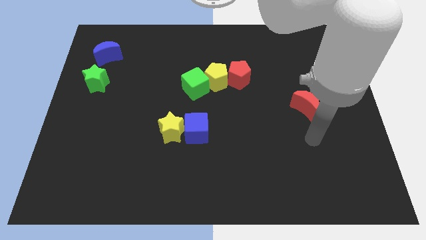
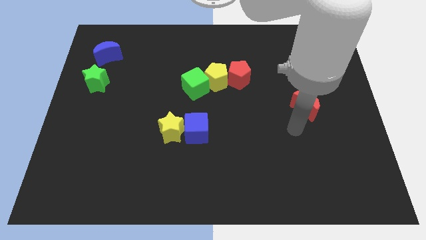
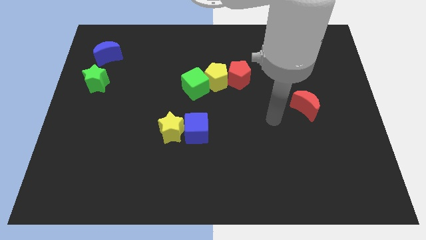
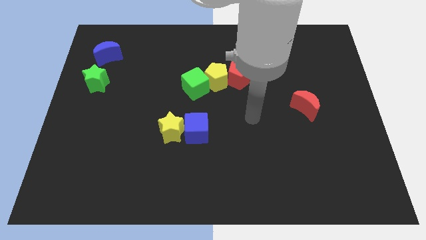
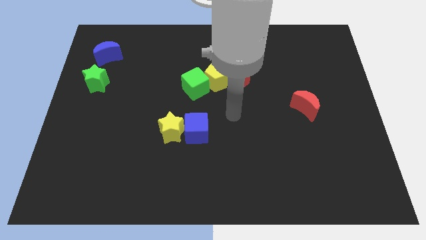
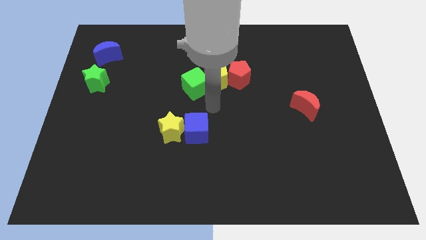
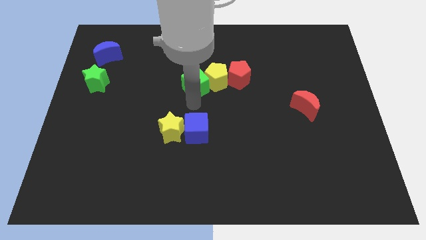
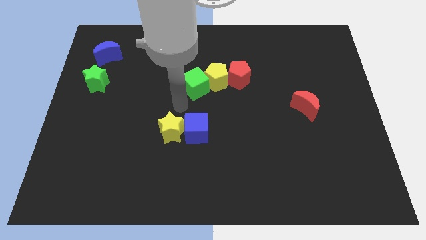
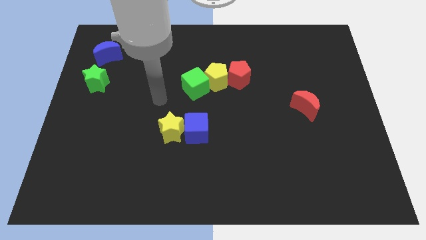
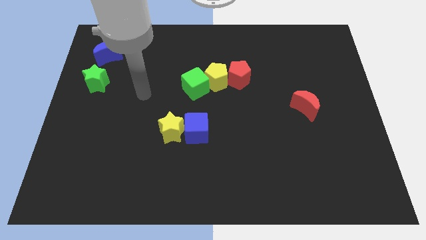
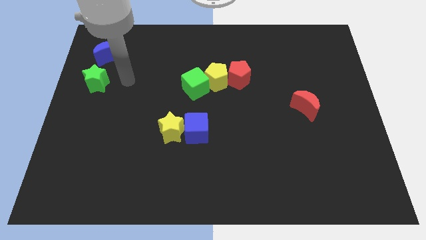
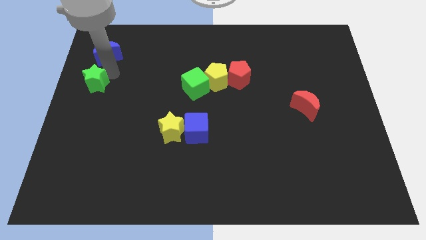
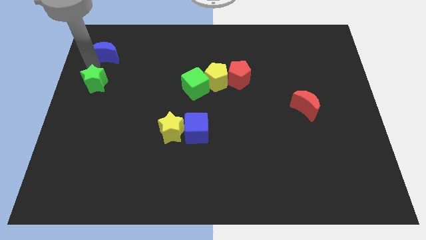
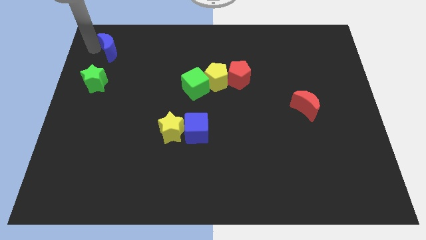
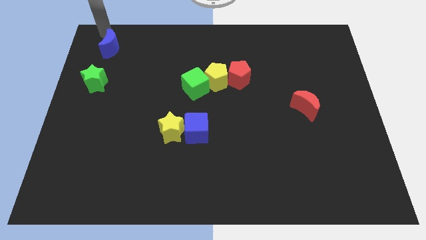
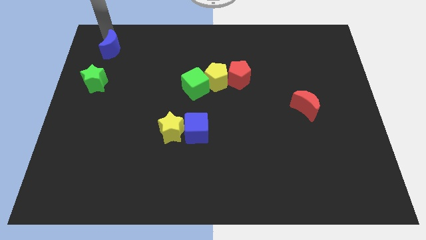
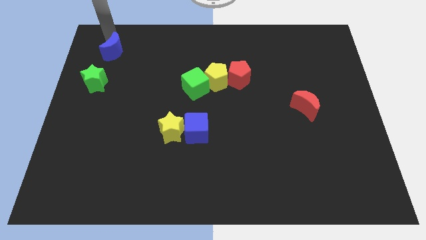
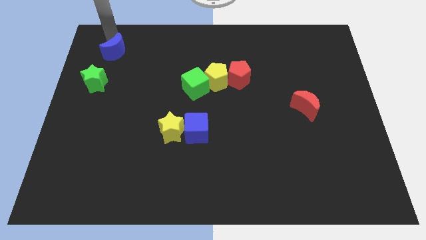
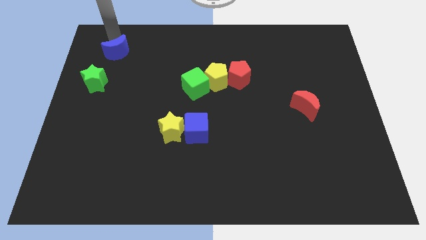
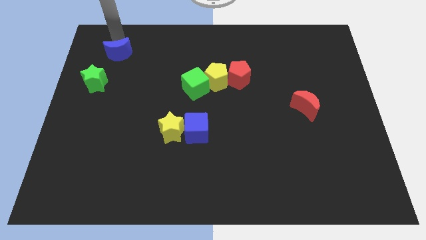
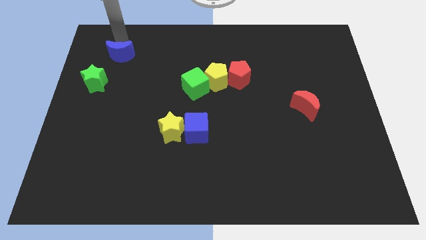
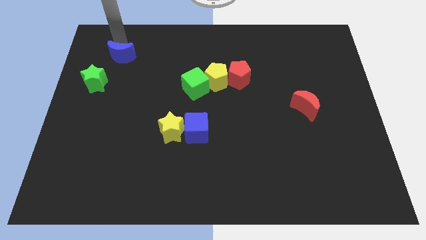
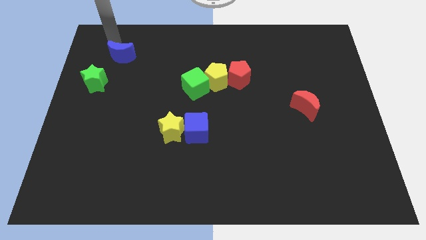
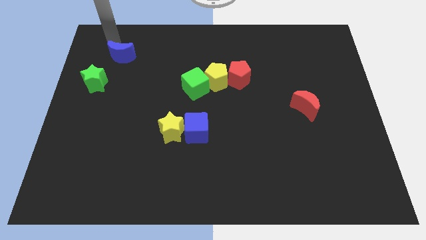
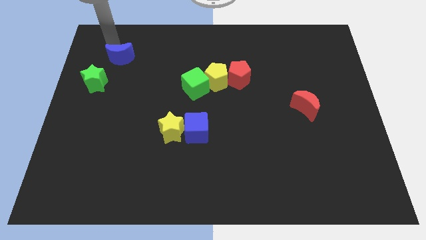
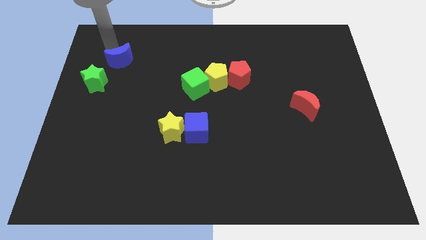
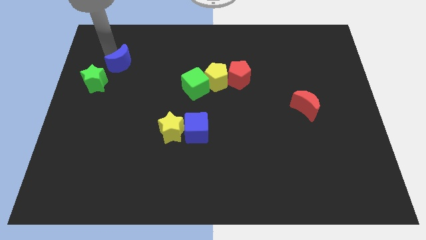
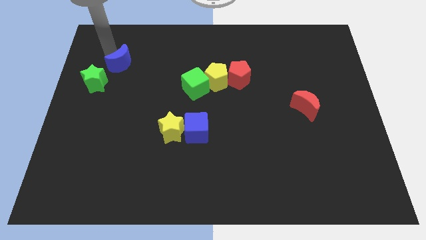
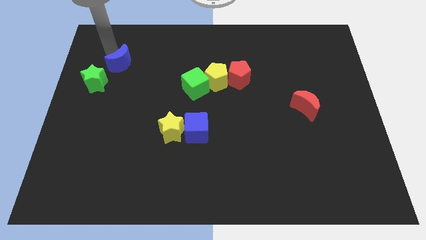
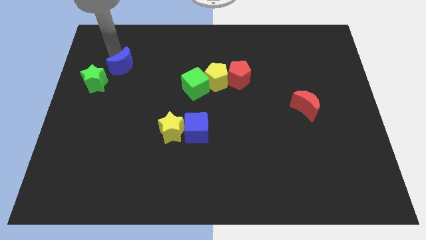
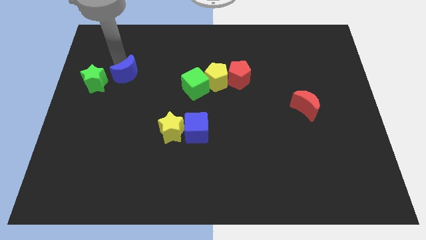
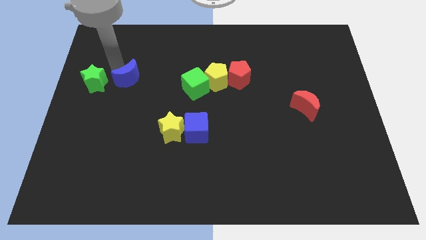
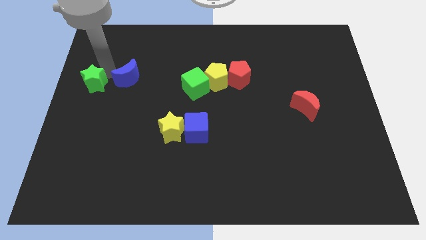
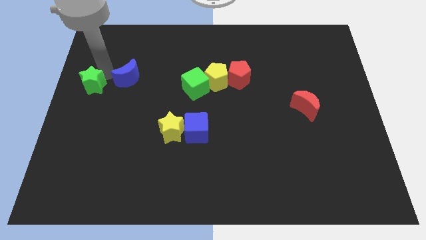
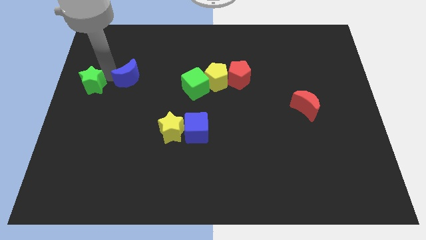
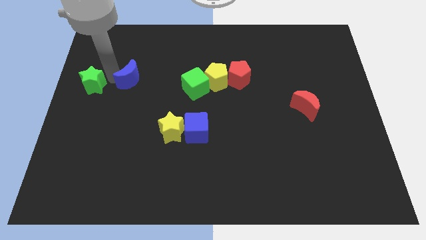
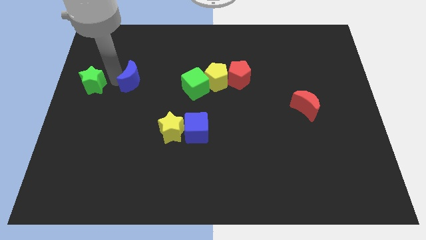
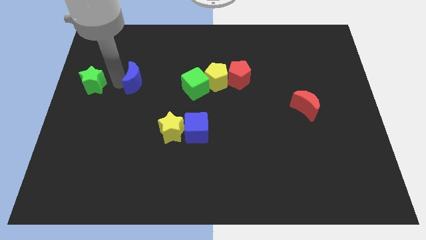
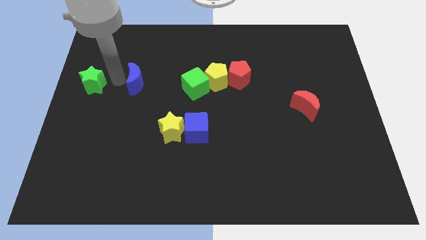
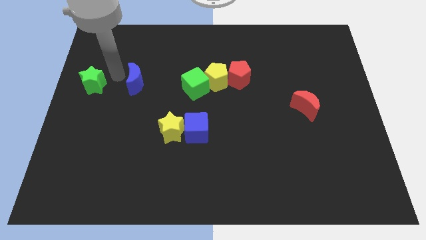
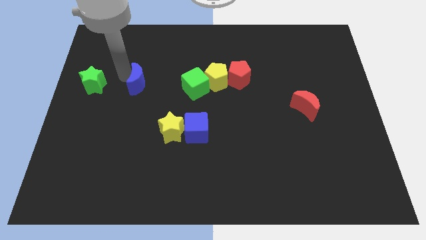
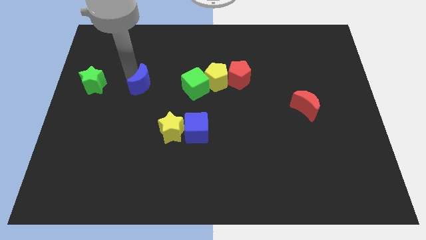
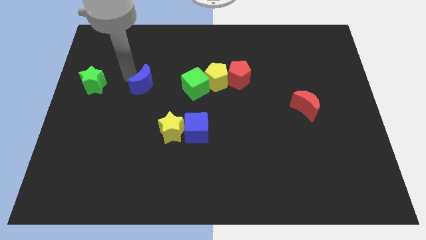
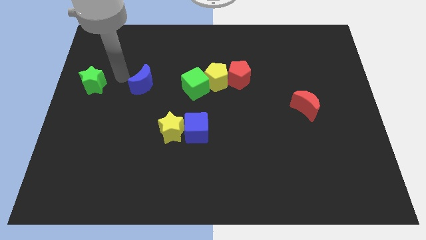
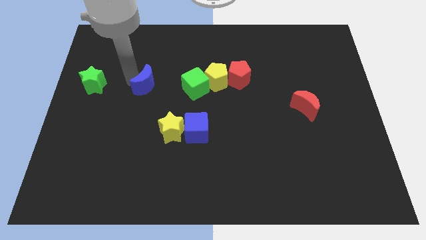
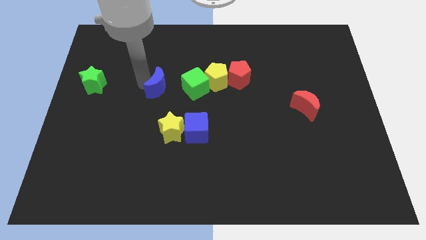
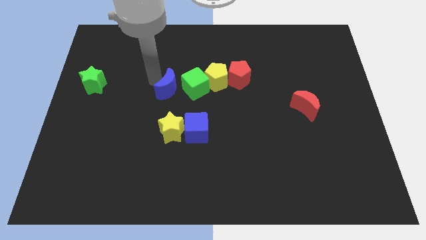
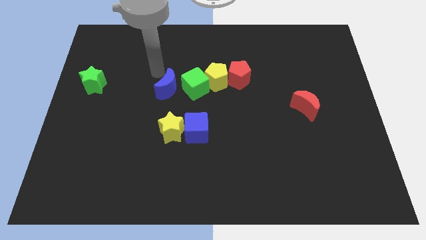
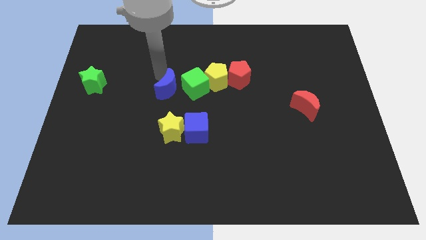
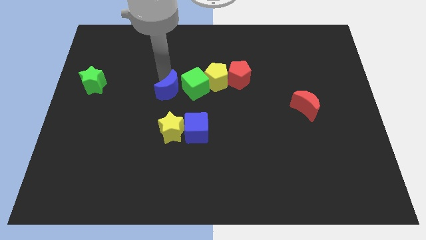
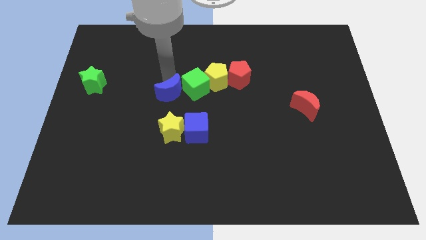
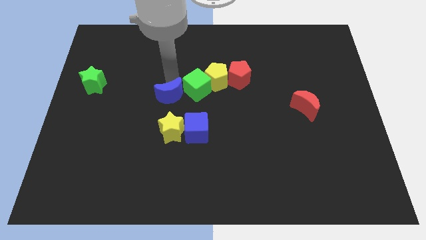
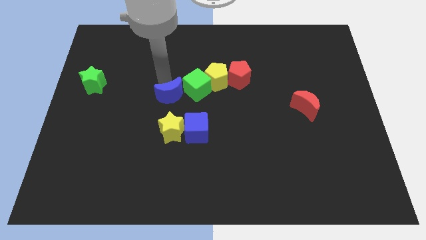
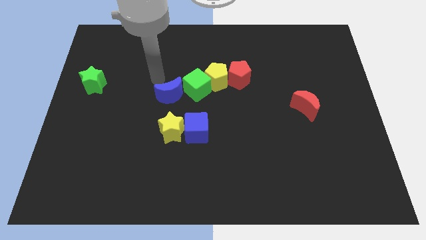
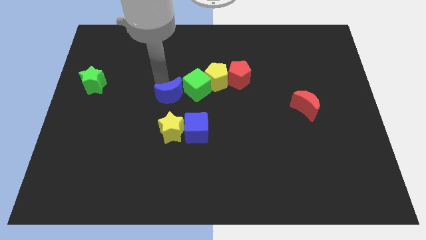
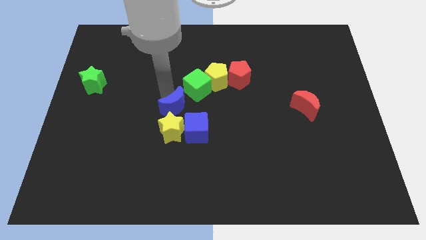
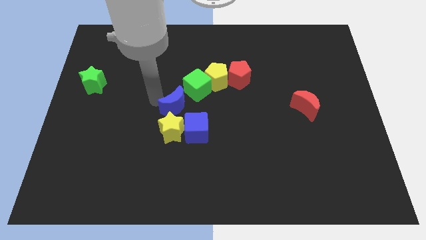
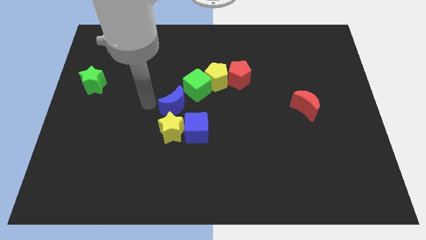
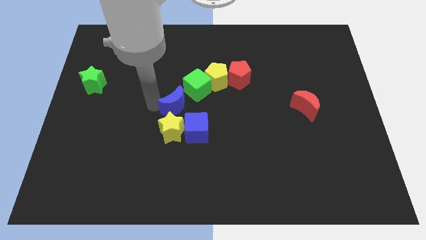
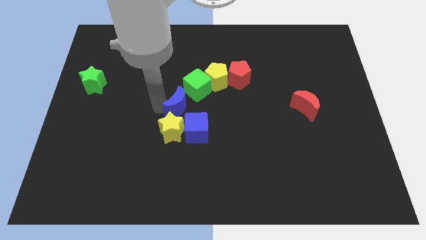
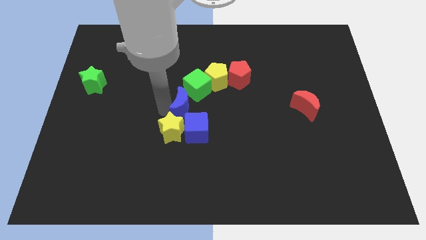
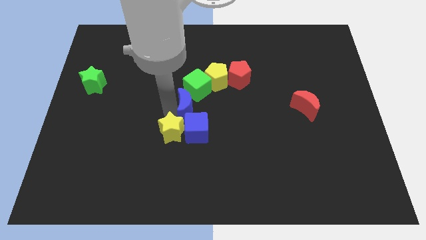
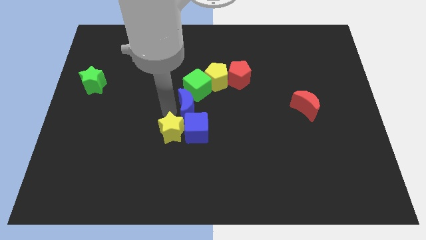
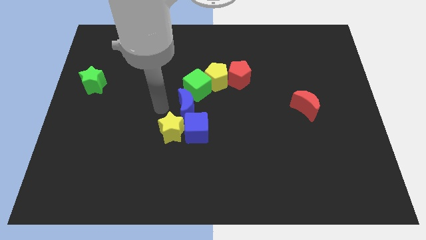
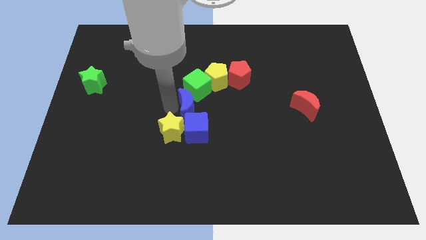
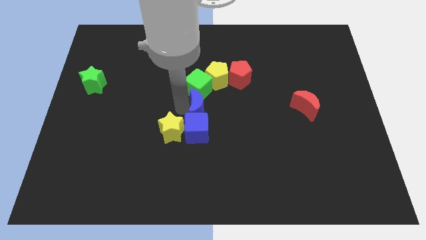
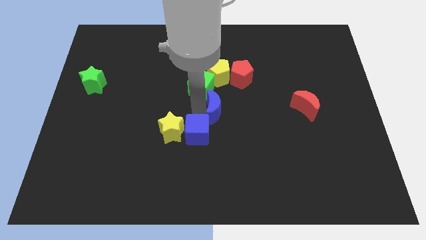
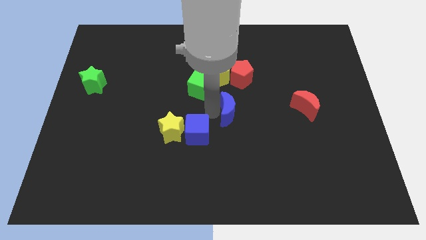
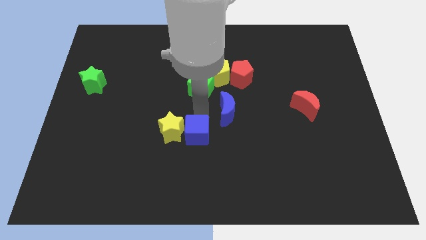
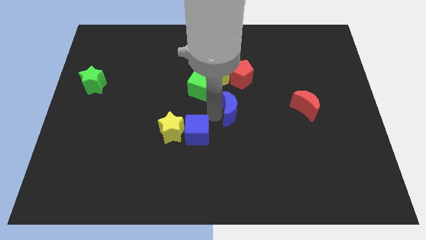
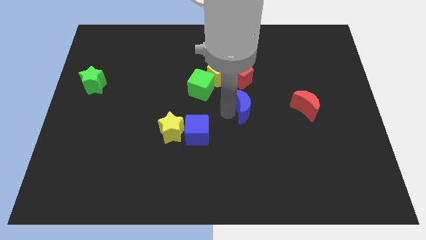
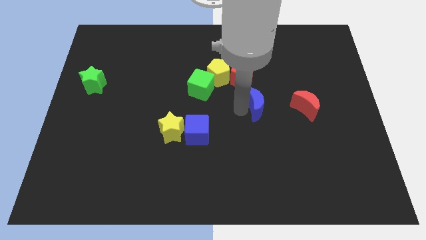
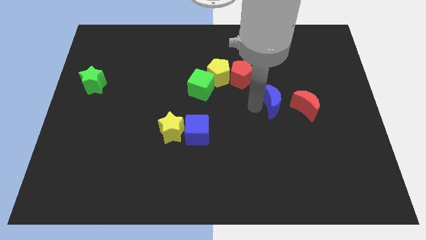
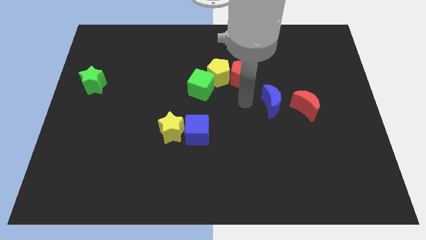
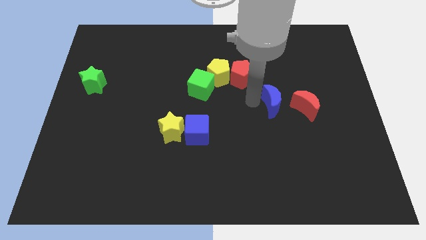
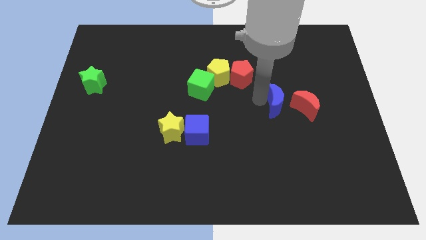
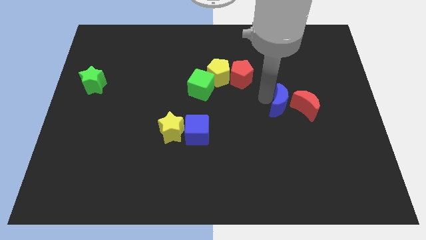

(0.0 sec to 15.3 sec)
move the blue moon to the red moon

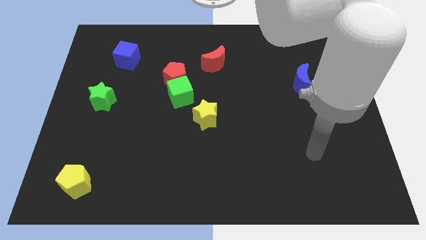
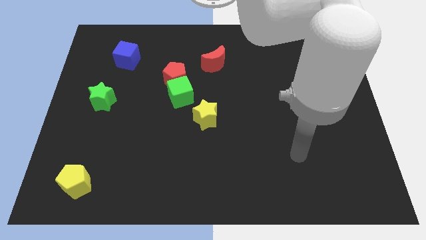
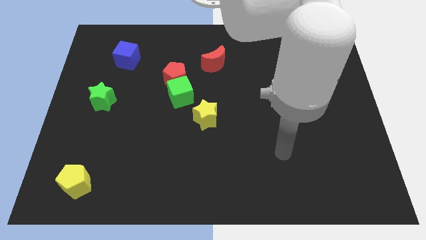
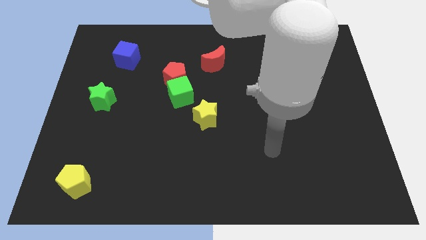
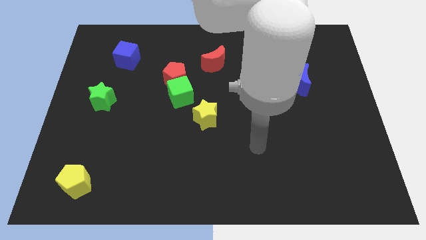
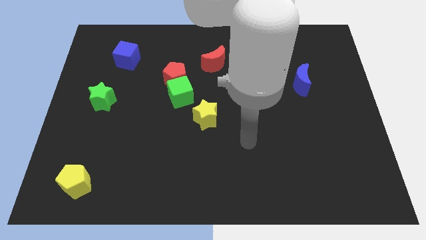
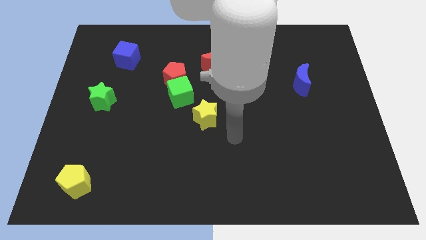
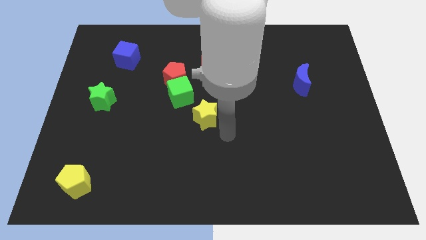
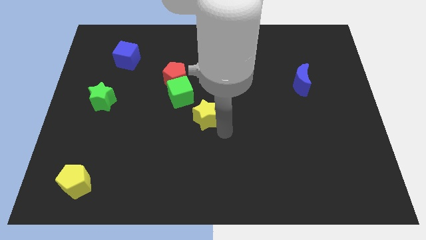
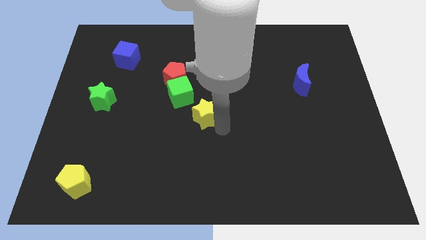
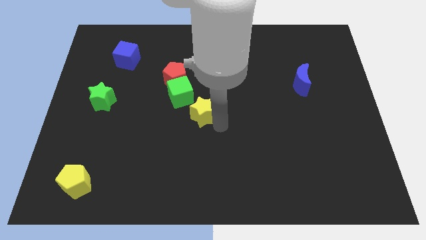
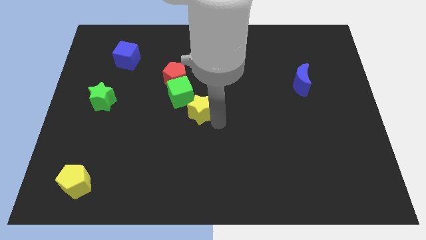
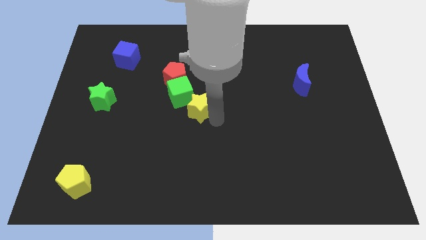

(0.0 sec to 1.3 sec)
put the yellow star next to the green cube
